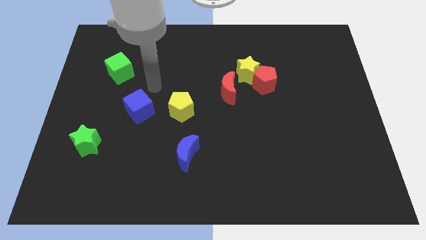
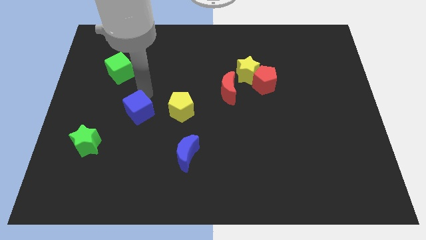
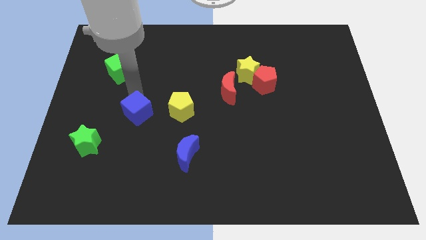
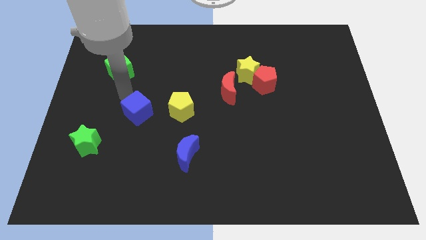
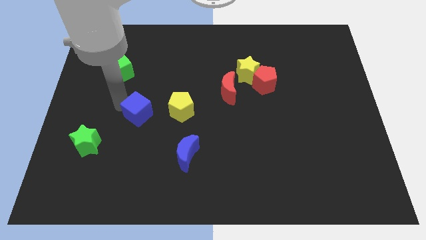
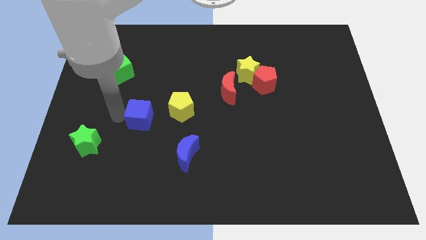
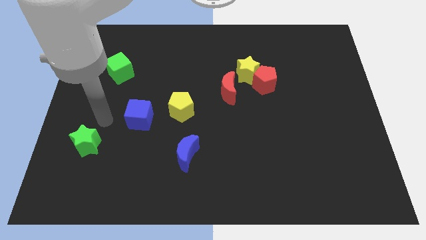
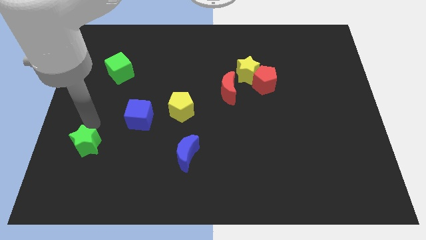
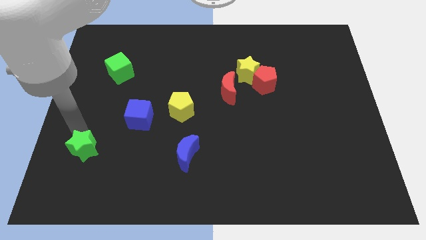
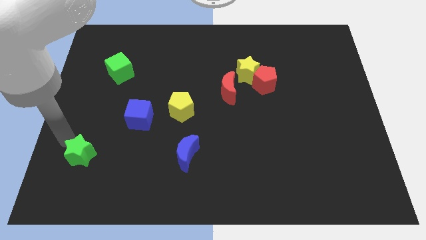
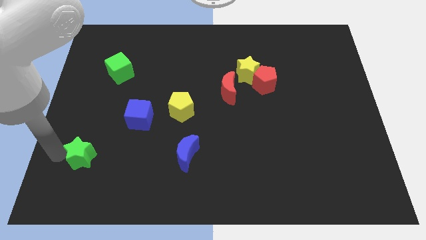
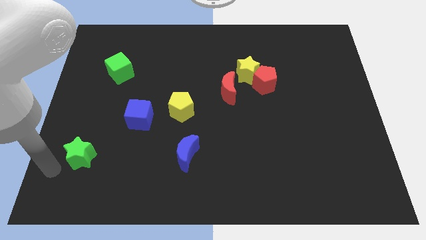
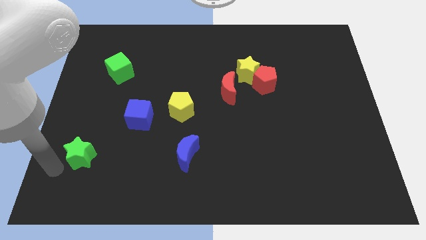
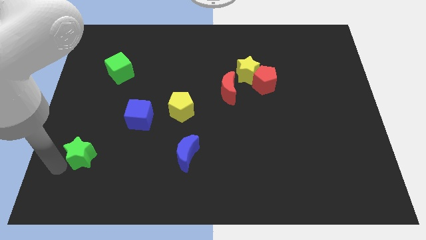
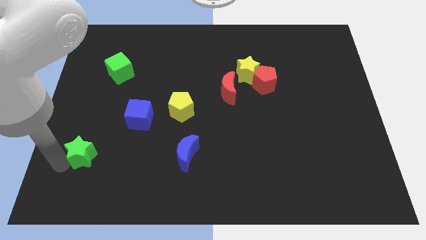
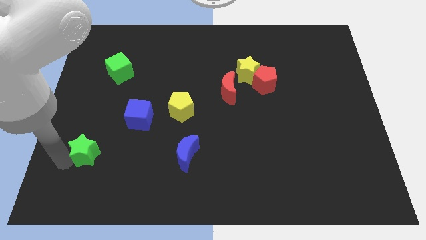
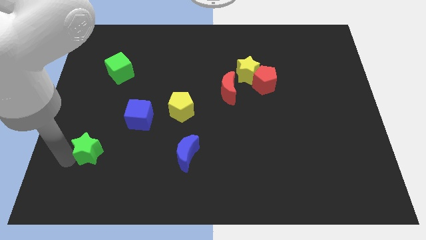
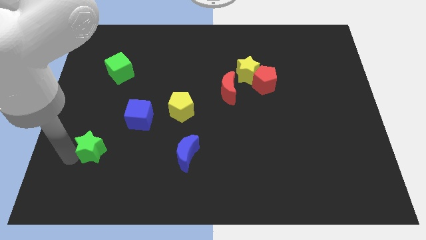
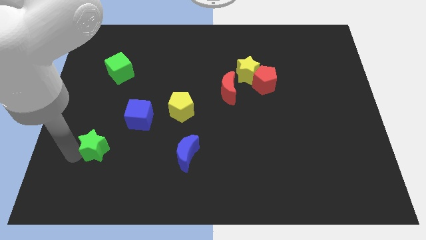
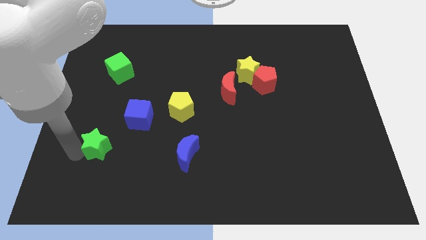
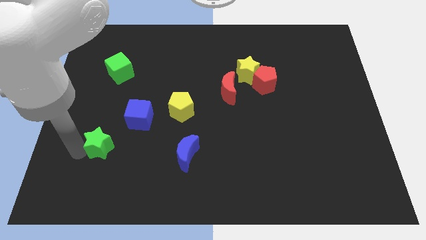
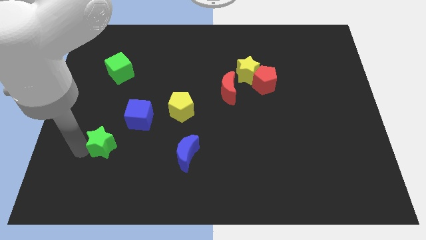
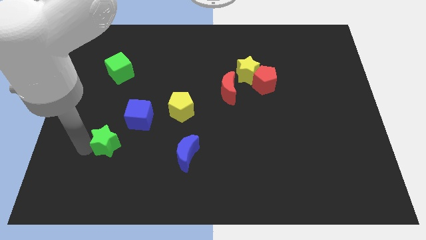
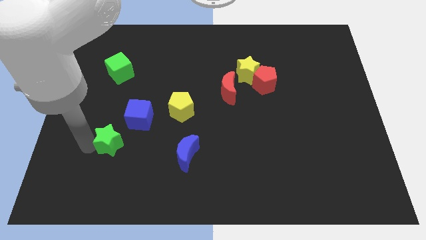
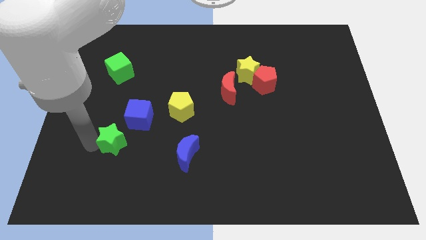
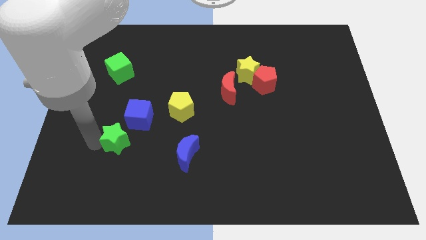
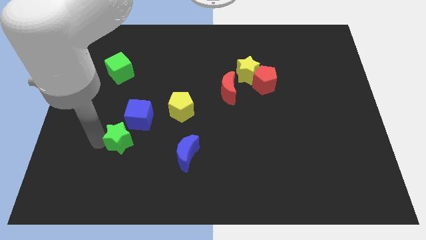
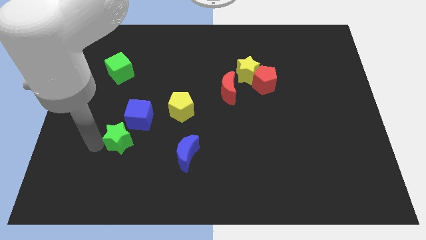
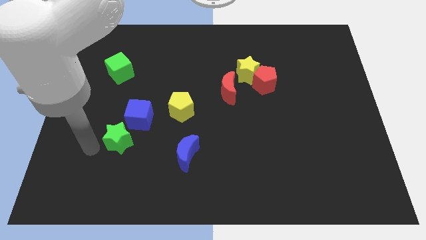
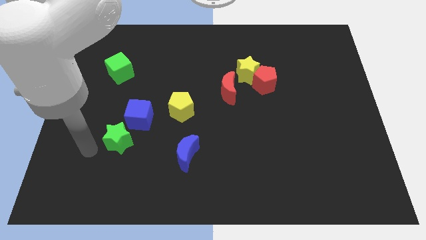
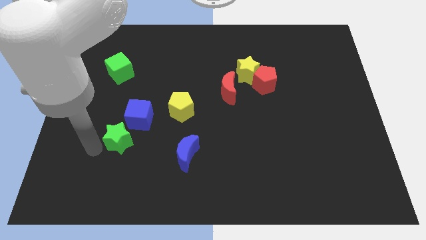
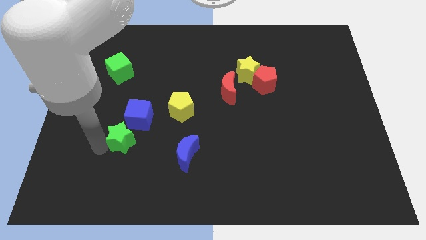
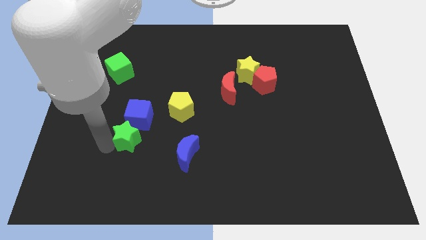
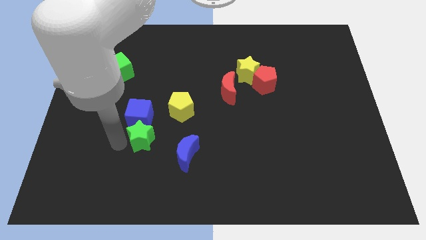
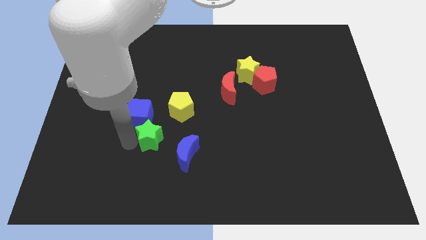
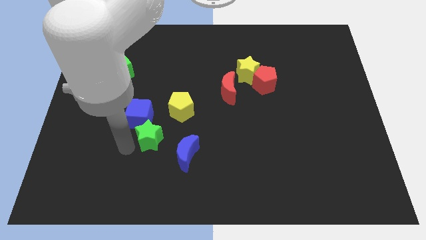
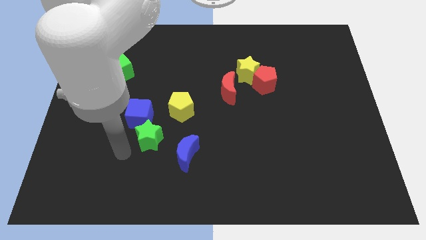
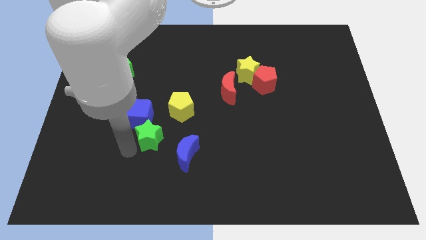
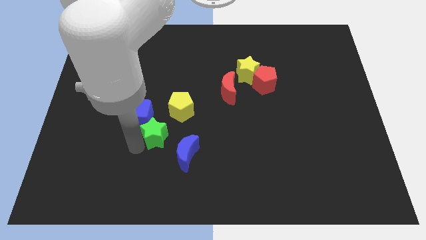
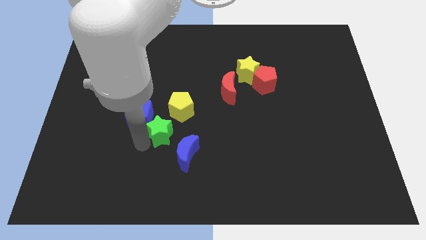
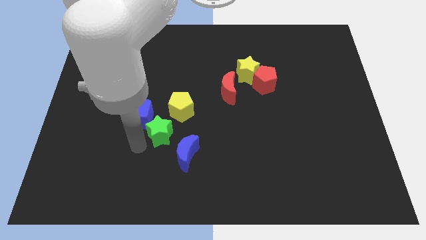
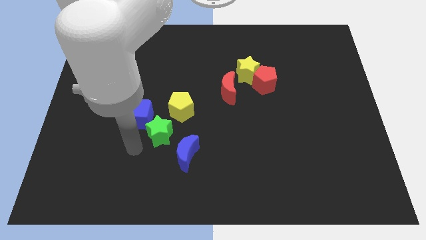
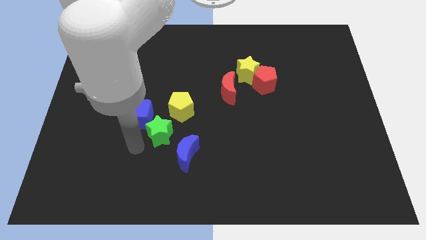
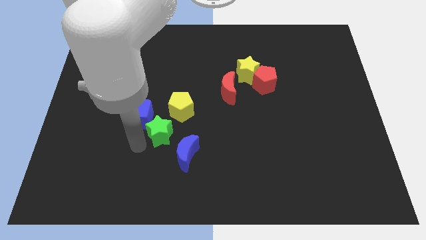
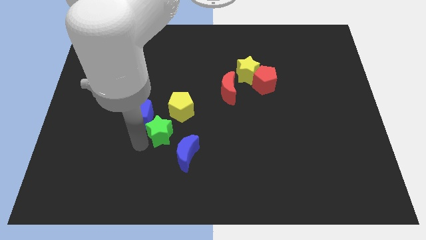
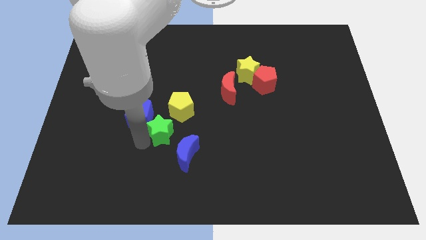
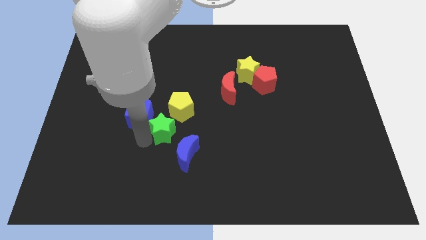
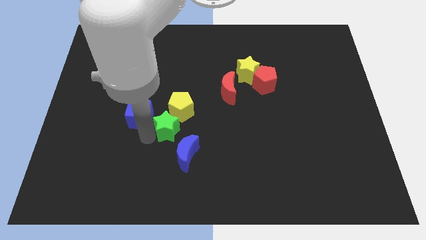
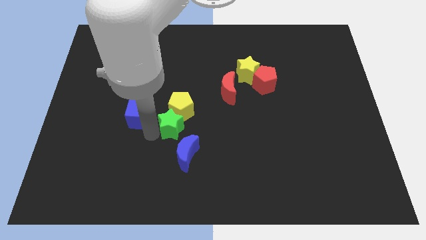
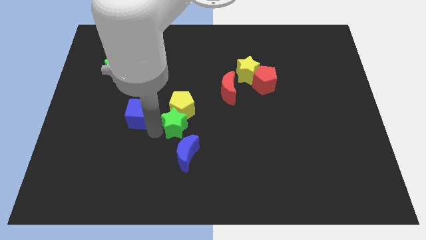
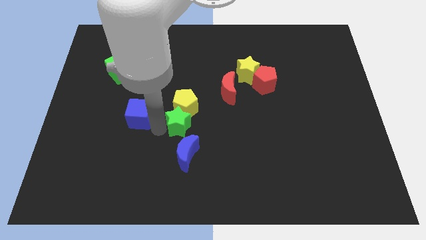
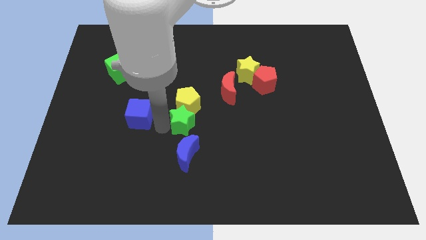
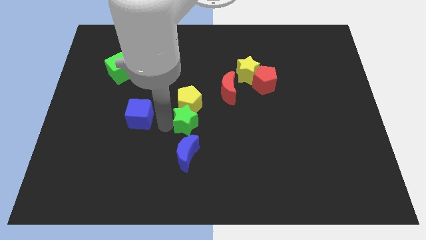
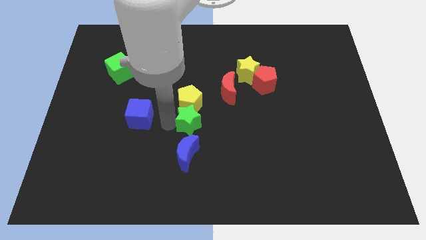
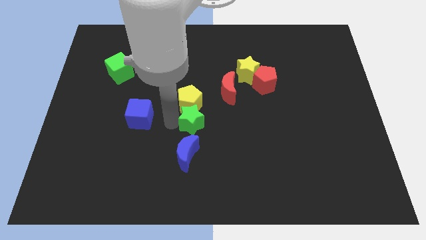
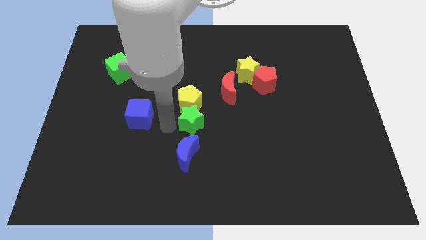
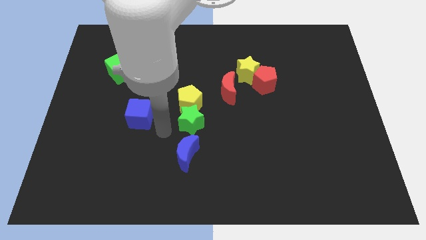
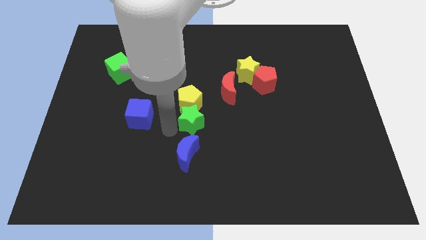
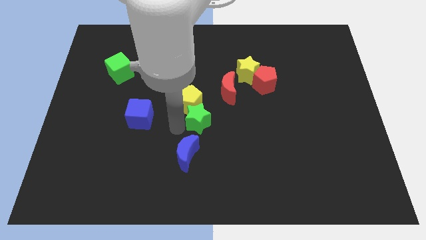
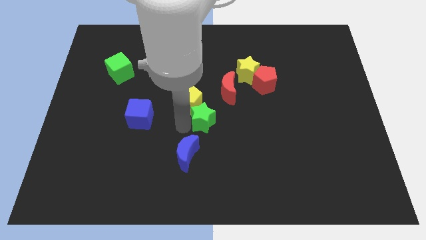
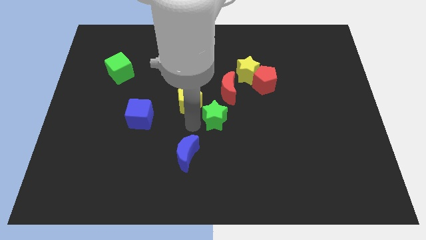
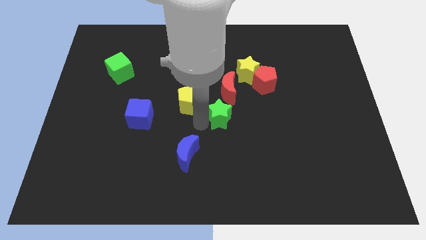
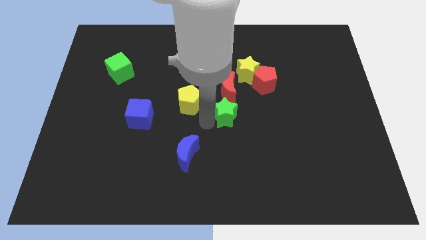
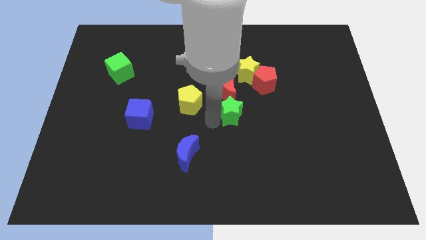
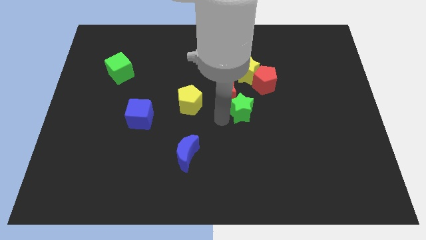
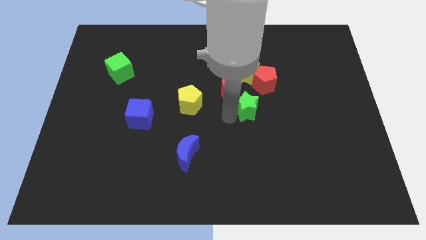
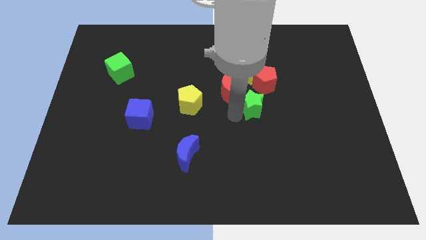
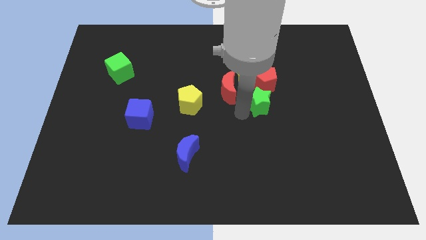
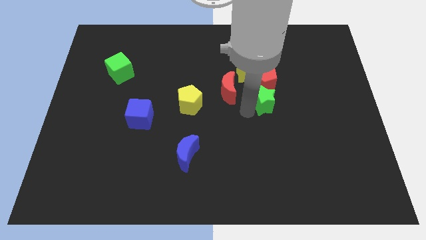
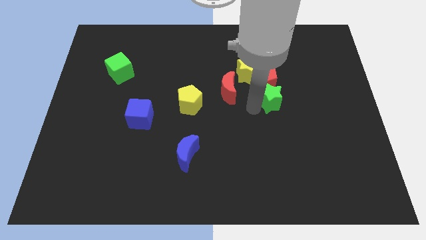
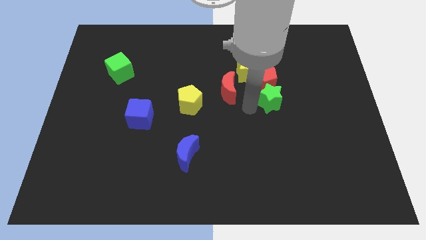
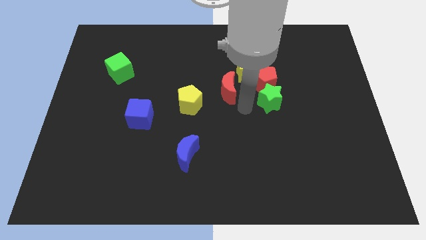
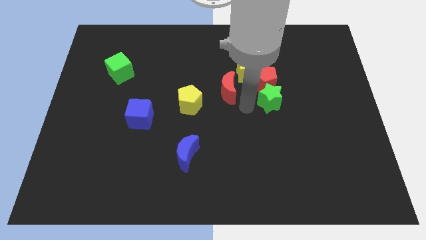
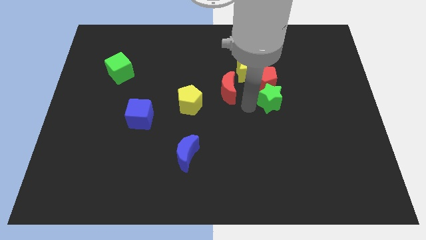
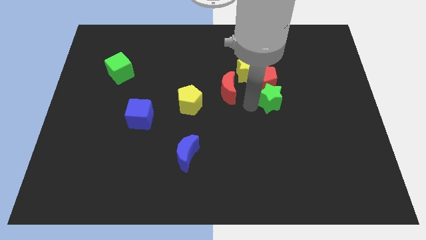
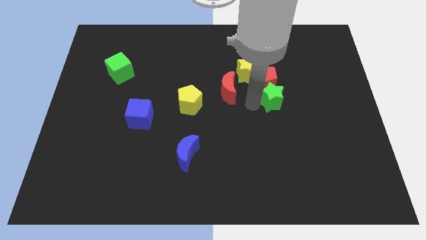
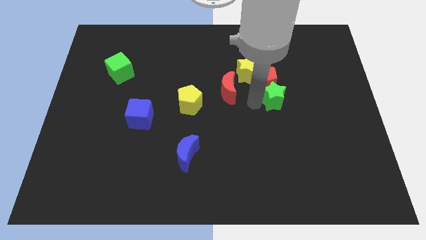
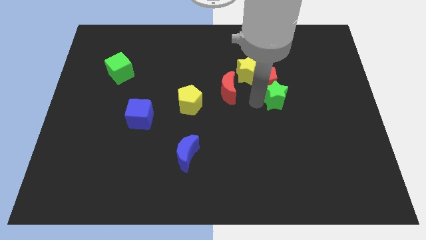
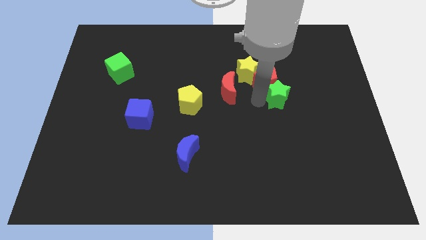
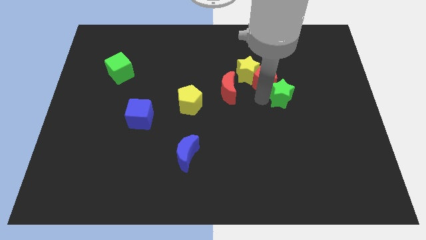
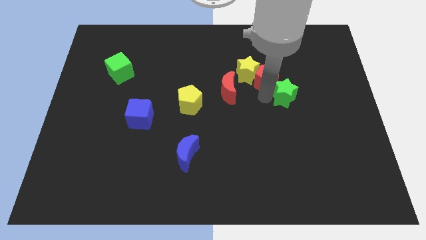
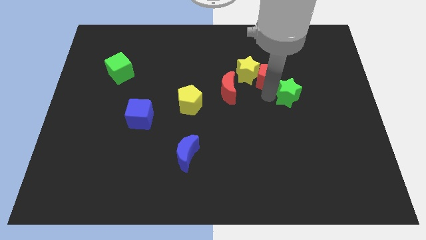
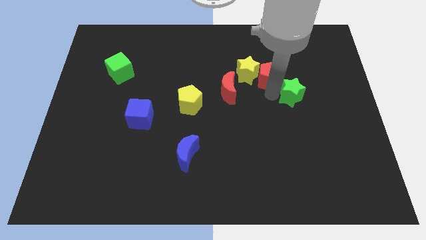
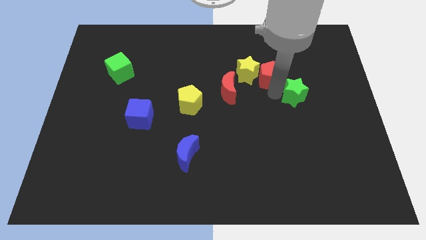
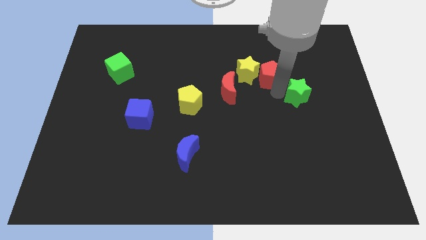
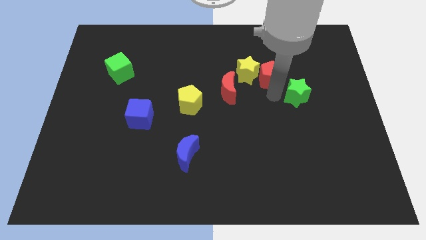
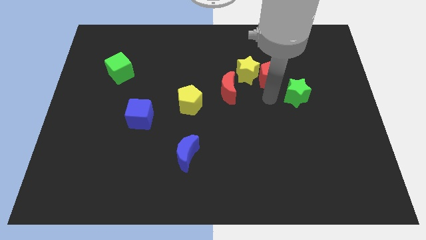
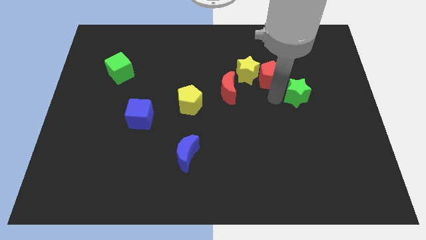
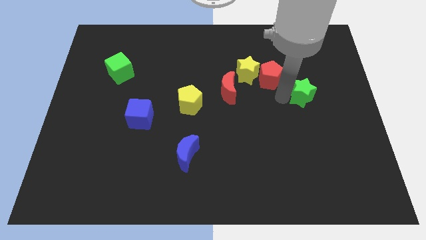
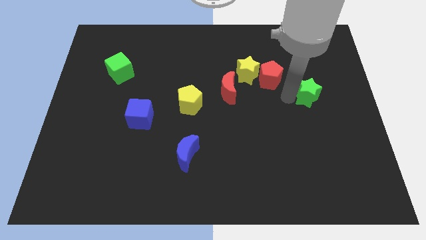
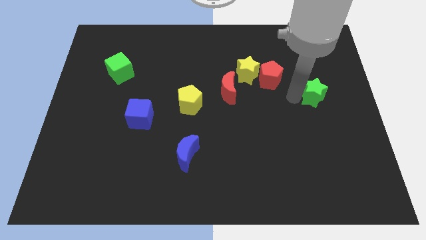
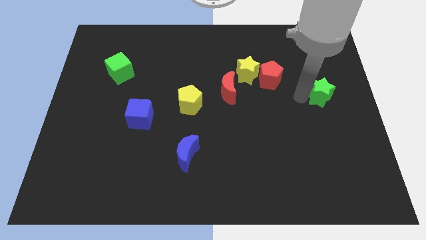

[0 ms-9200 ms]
slide the green star to the center right
